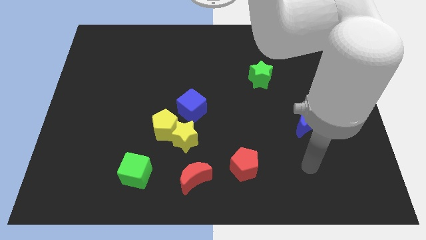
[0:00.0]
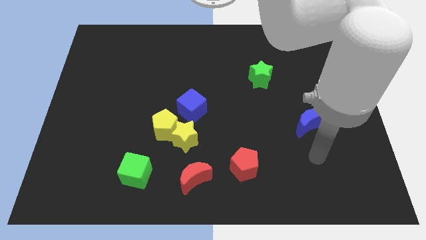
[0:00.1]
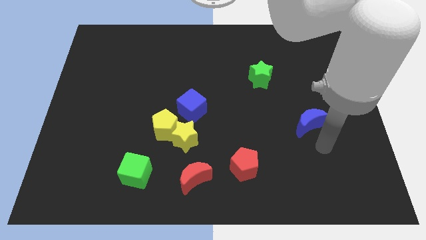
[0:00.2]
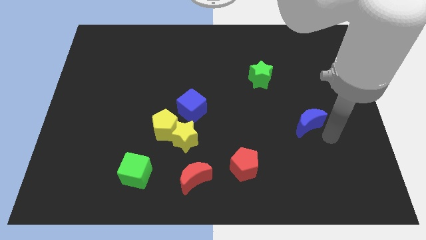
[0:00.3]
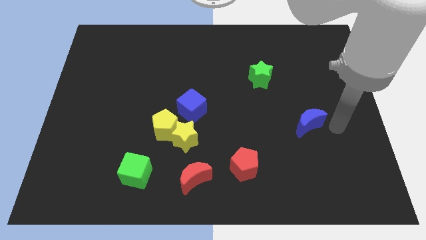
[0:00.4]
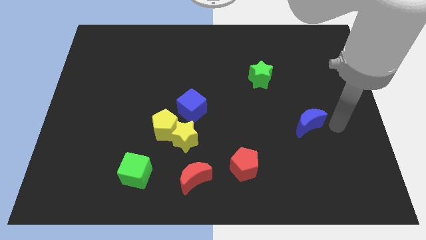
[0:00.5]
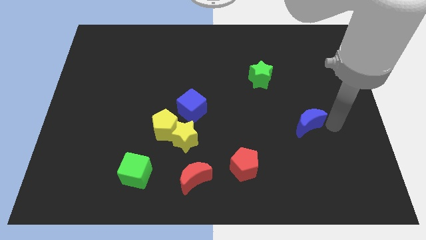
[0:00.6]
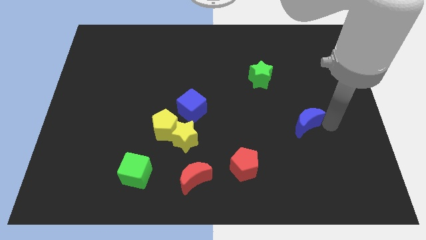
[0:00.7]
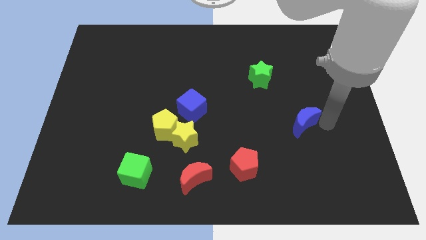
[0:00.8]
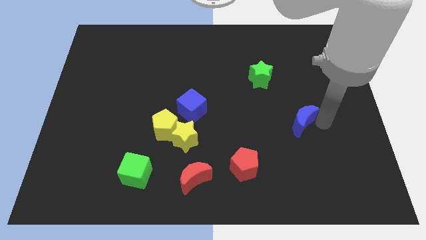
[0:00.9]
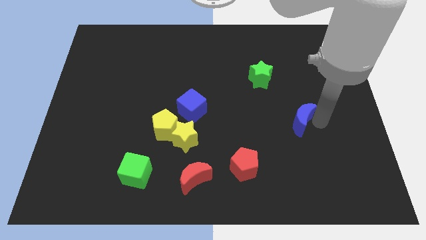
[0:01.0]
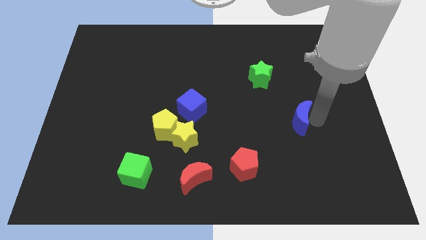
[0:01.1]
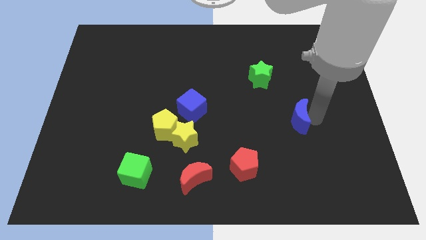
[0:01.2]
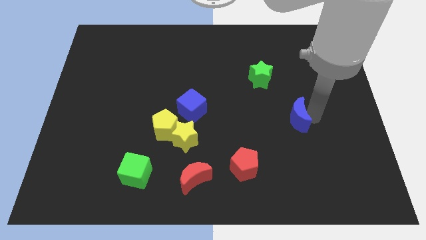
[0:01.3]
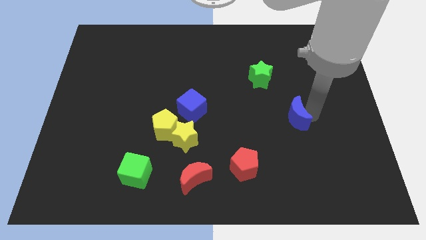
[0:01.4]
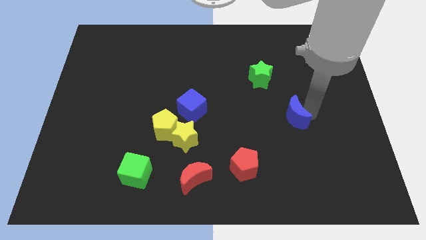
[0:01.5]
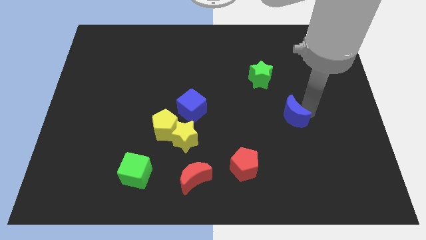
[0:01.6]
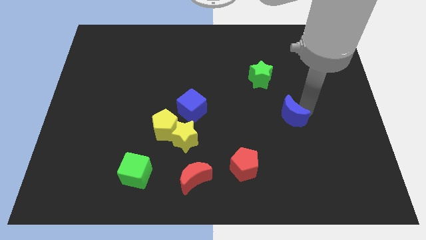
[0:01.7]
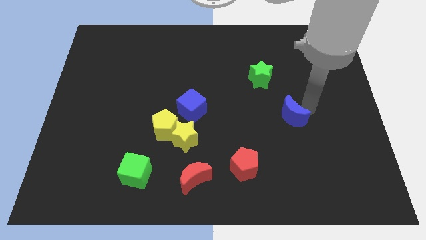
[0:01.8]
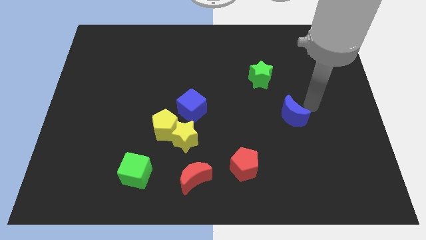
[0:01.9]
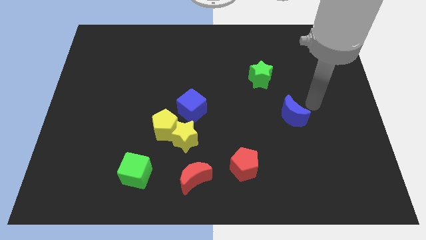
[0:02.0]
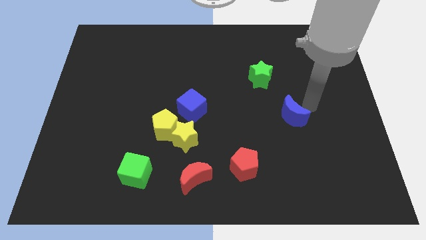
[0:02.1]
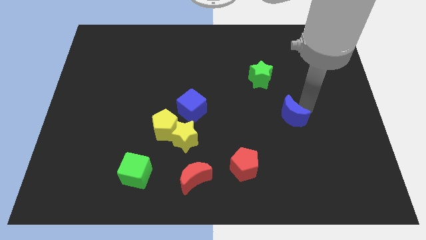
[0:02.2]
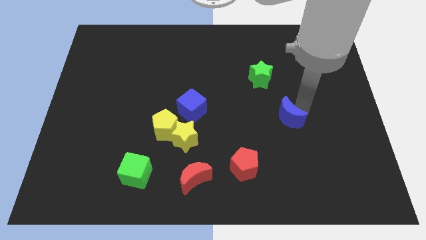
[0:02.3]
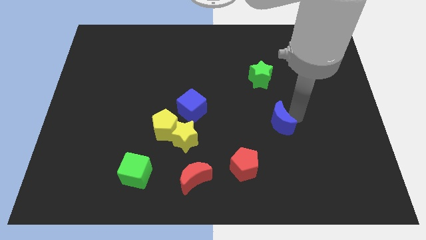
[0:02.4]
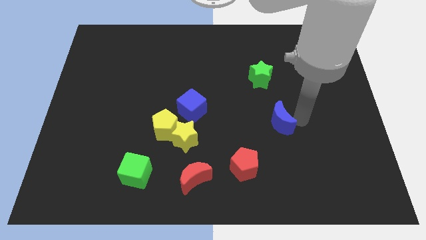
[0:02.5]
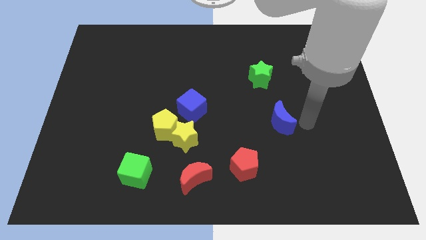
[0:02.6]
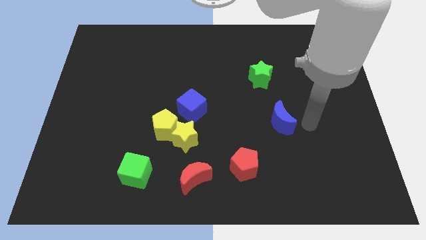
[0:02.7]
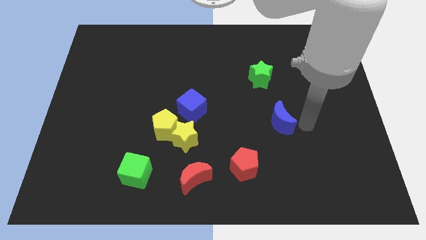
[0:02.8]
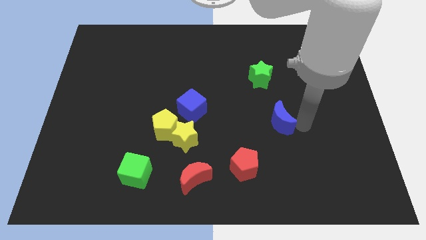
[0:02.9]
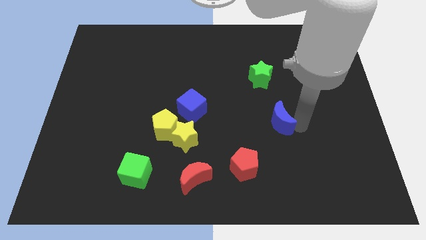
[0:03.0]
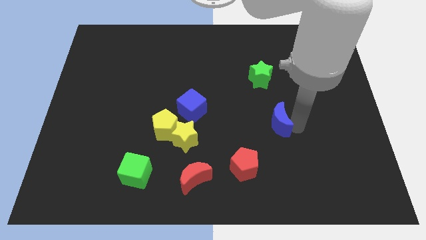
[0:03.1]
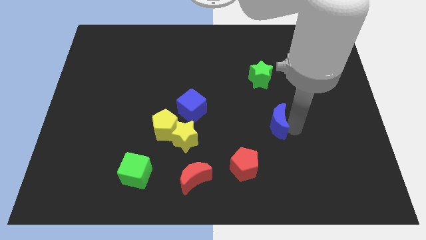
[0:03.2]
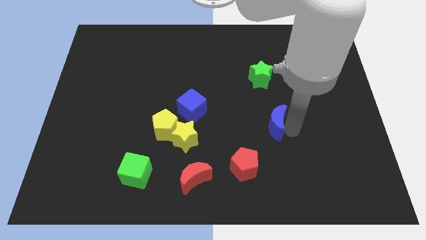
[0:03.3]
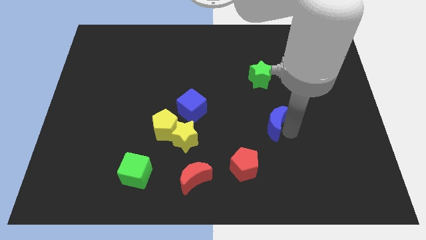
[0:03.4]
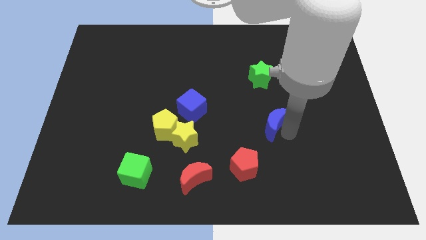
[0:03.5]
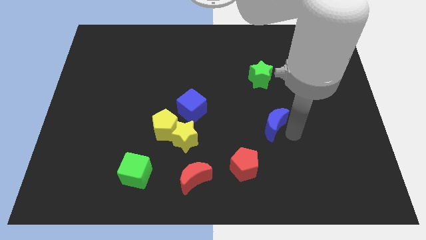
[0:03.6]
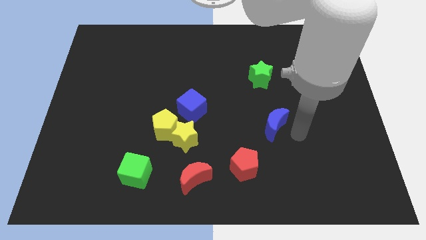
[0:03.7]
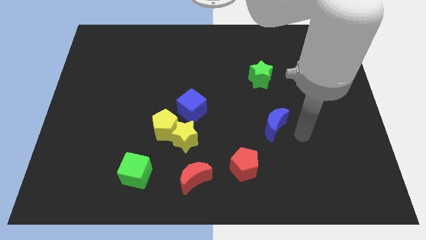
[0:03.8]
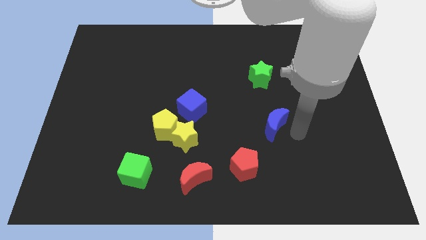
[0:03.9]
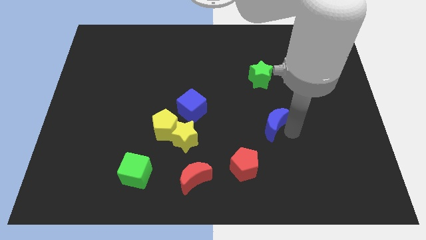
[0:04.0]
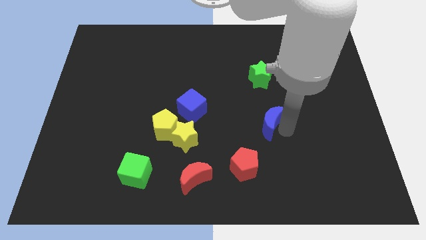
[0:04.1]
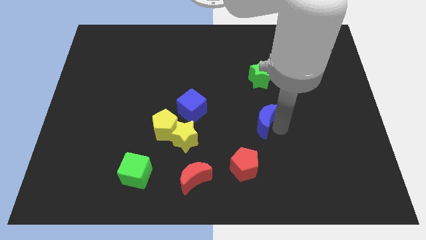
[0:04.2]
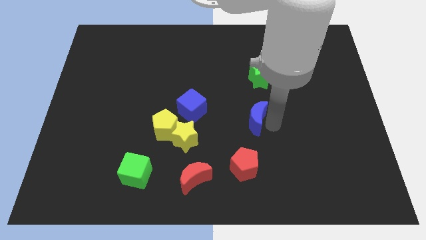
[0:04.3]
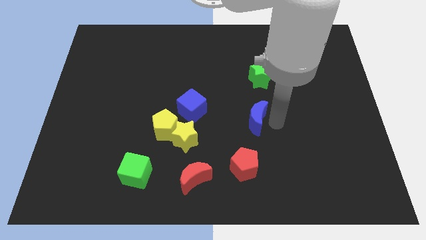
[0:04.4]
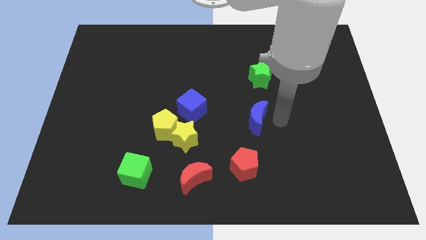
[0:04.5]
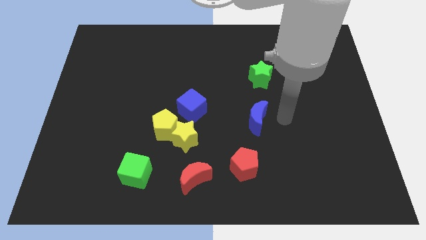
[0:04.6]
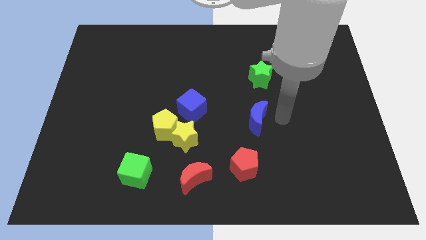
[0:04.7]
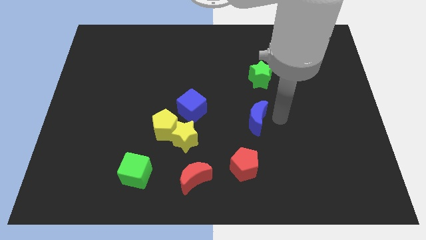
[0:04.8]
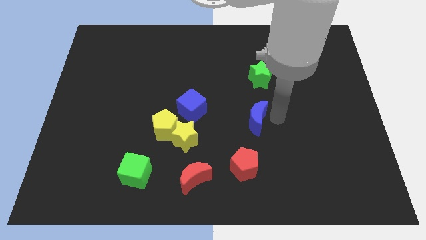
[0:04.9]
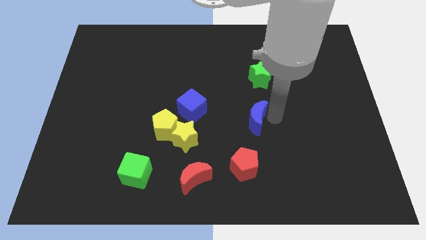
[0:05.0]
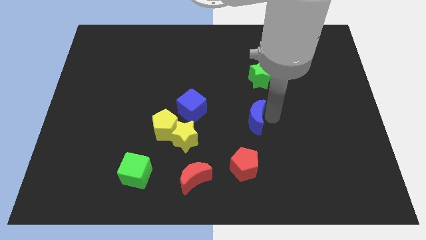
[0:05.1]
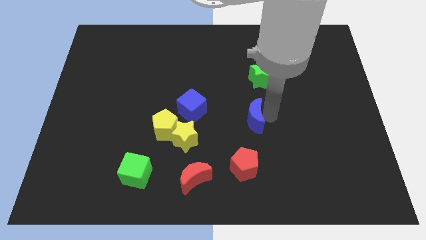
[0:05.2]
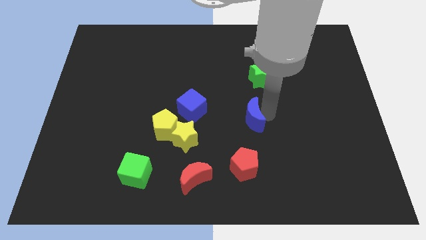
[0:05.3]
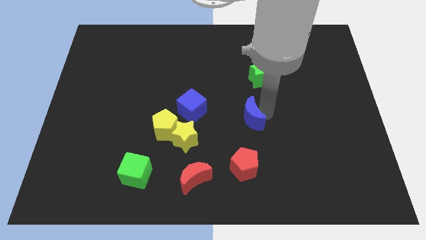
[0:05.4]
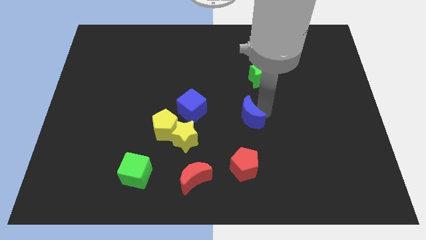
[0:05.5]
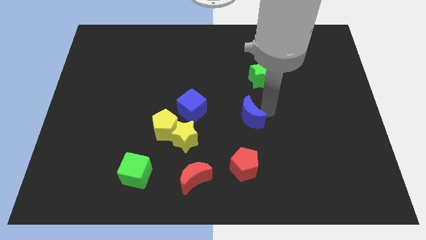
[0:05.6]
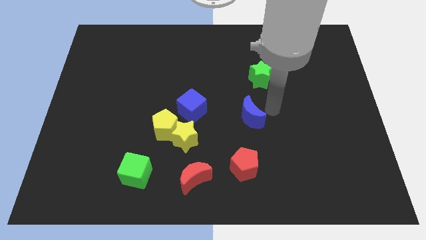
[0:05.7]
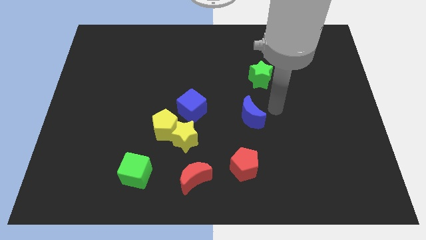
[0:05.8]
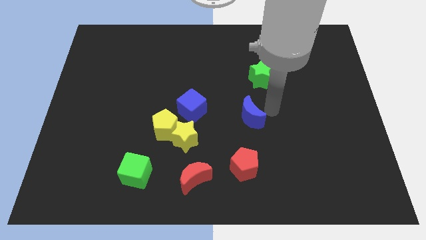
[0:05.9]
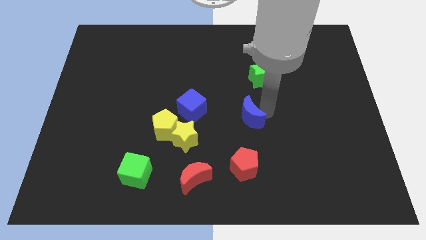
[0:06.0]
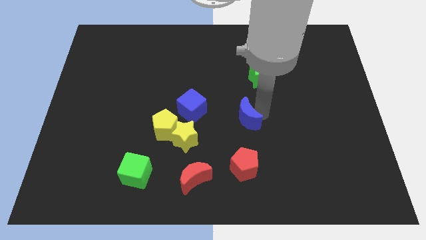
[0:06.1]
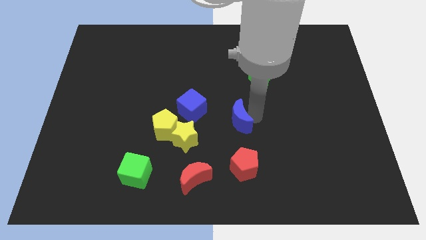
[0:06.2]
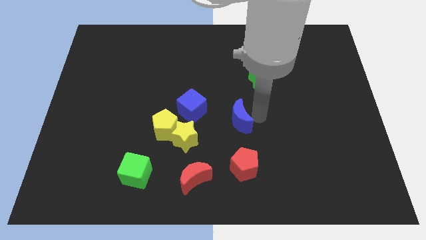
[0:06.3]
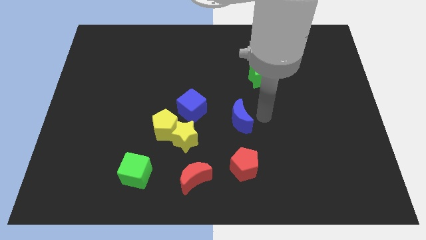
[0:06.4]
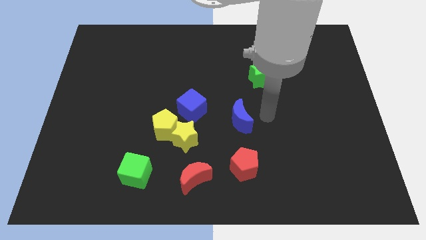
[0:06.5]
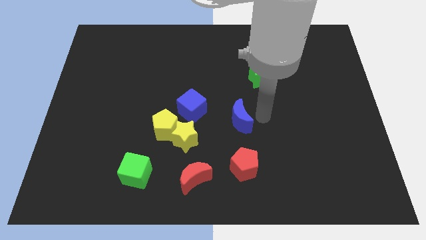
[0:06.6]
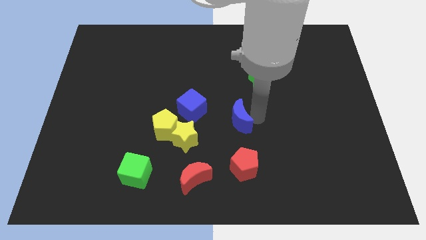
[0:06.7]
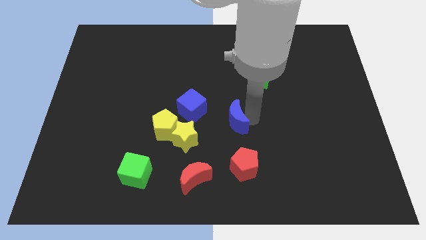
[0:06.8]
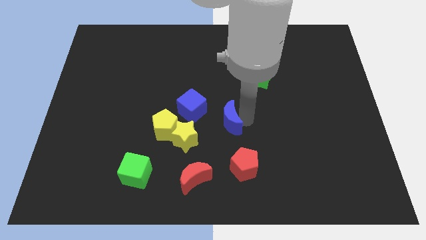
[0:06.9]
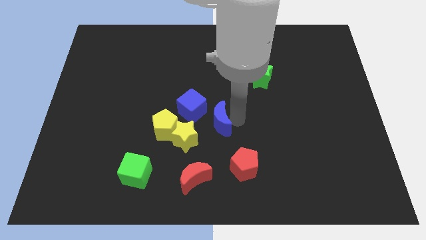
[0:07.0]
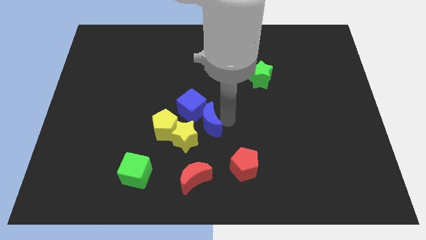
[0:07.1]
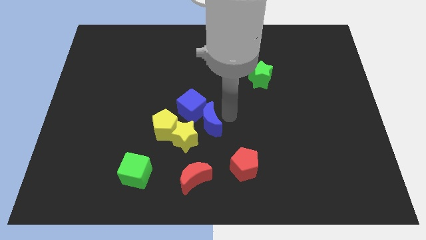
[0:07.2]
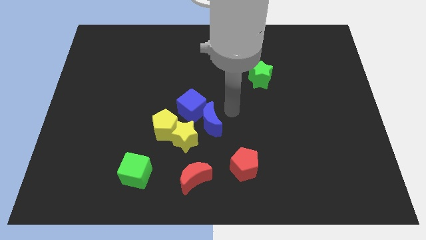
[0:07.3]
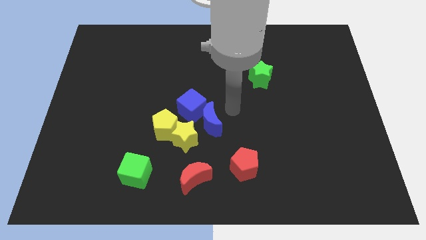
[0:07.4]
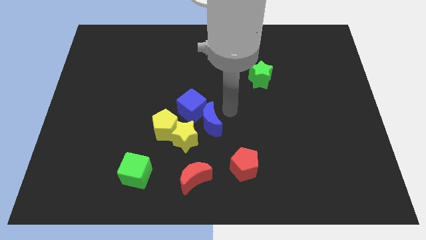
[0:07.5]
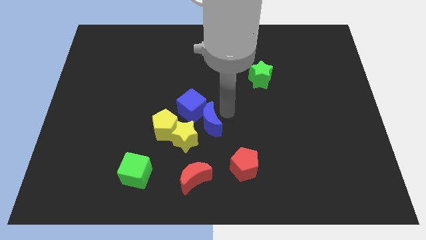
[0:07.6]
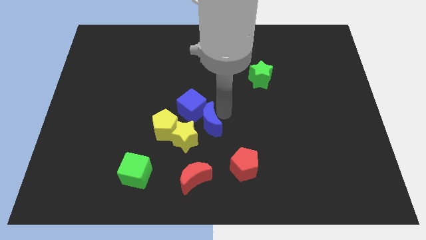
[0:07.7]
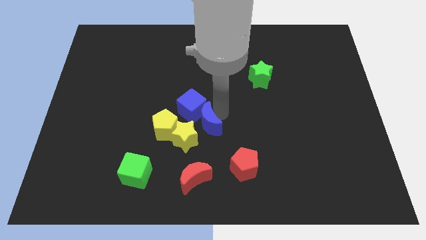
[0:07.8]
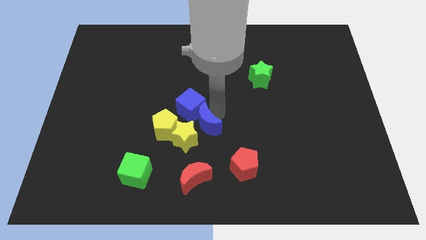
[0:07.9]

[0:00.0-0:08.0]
move the blue moon close to the yellow star
